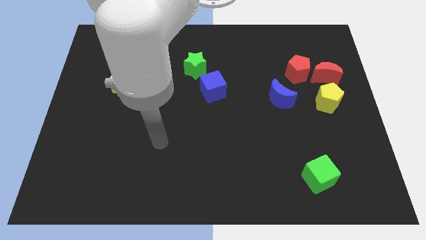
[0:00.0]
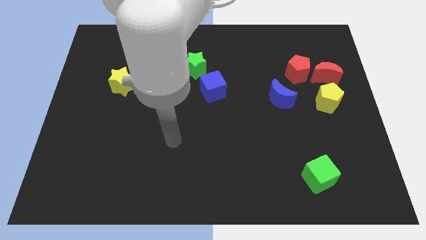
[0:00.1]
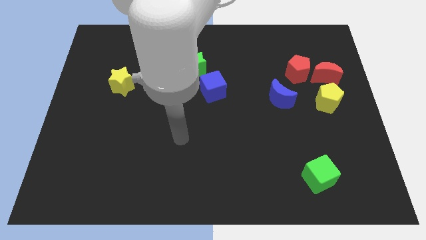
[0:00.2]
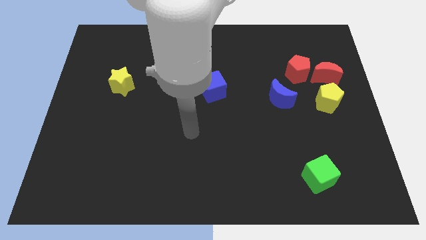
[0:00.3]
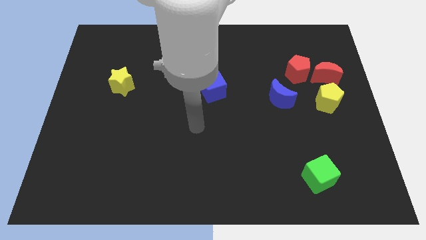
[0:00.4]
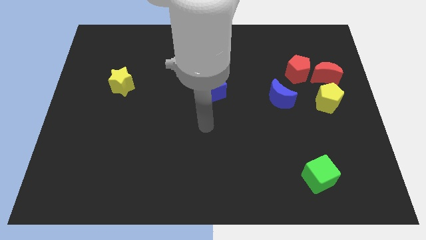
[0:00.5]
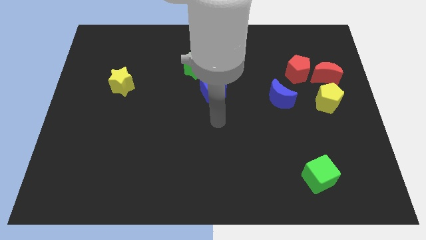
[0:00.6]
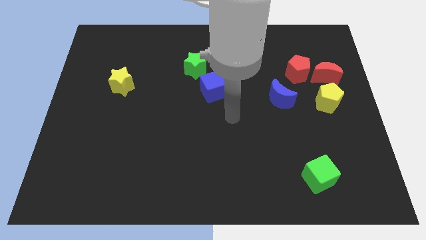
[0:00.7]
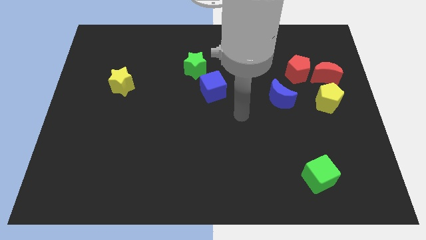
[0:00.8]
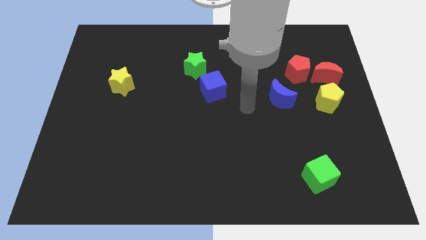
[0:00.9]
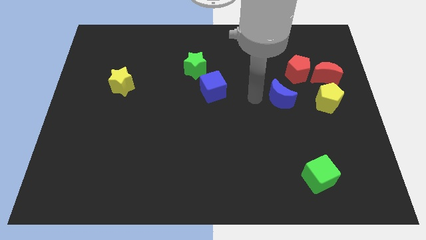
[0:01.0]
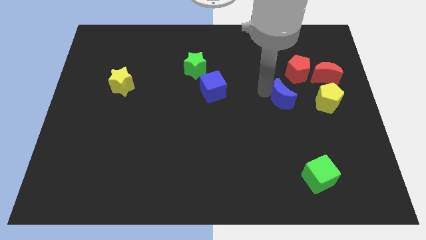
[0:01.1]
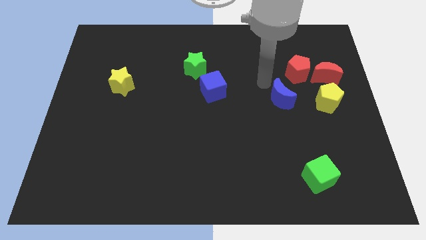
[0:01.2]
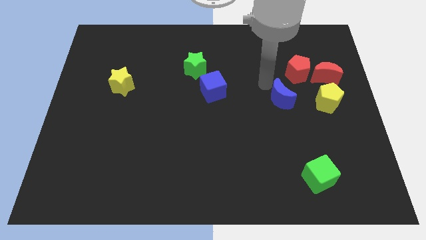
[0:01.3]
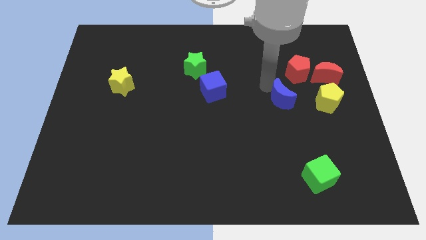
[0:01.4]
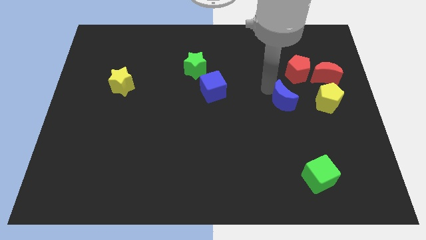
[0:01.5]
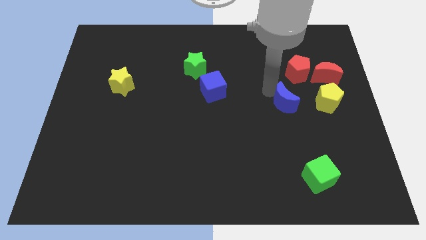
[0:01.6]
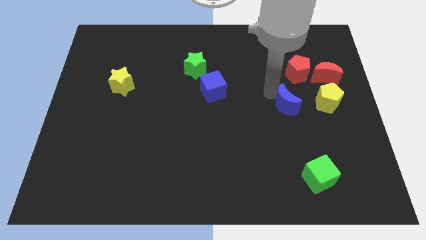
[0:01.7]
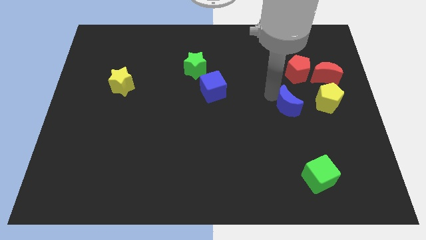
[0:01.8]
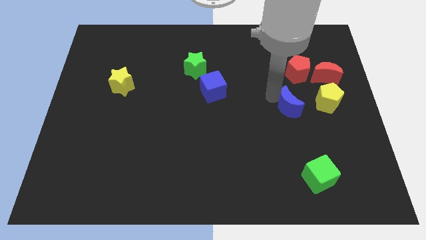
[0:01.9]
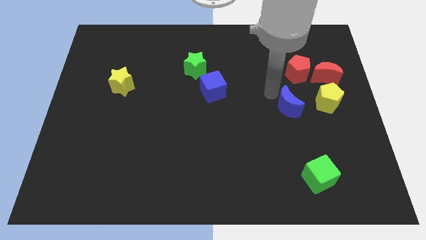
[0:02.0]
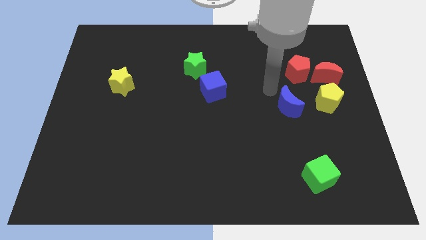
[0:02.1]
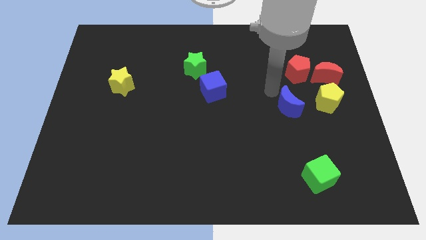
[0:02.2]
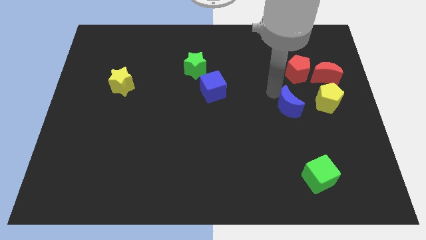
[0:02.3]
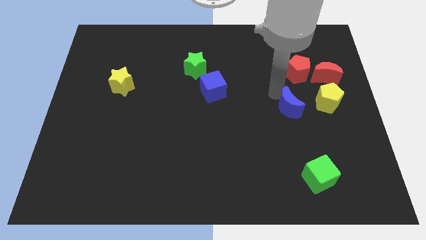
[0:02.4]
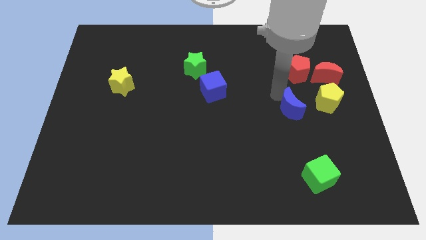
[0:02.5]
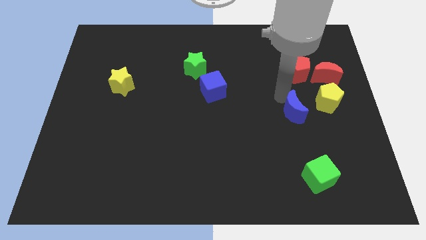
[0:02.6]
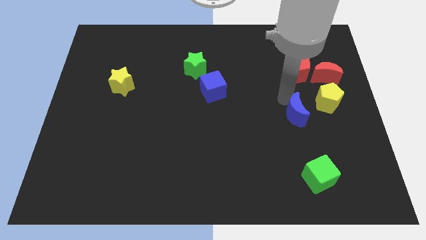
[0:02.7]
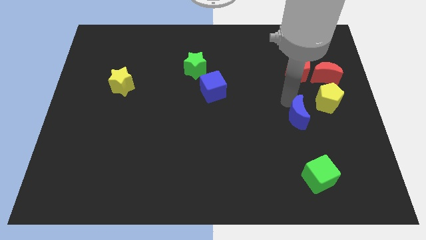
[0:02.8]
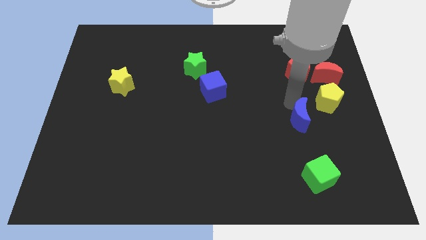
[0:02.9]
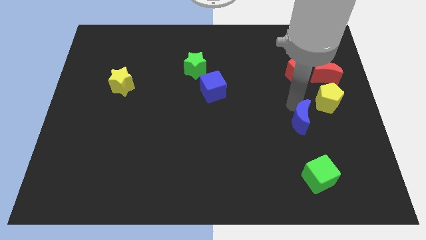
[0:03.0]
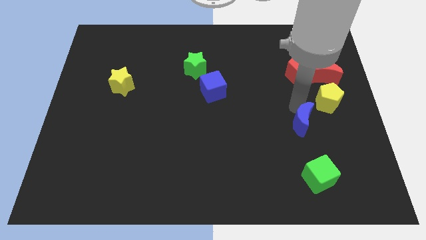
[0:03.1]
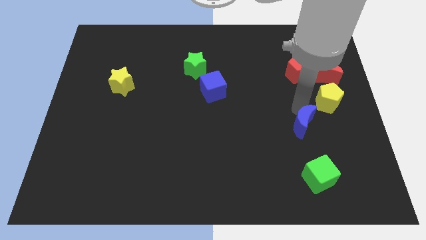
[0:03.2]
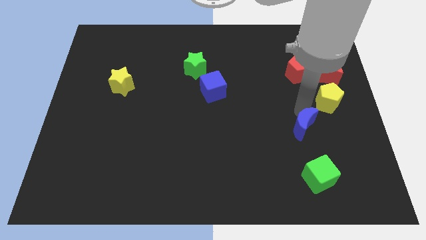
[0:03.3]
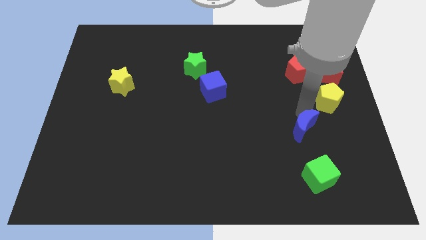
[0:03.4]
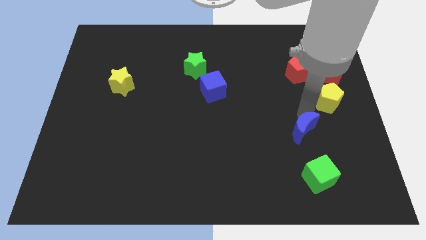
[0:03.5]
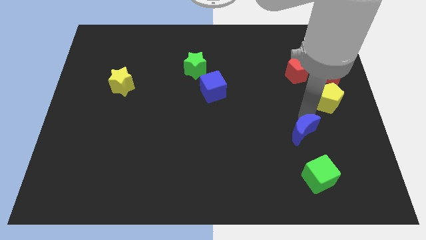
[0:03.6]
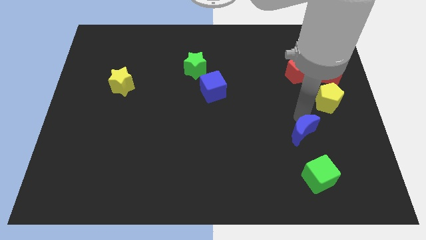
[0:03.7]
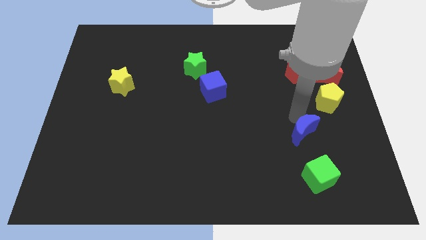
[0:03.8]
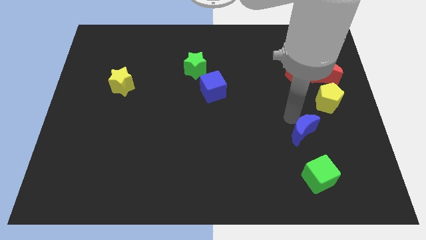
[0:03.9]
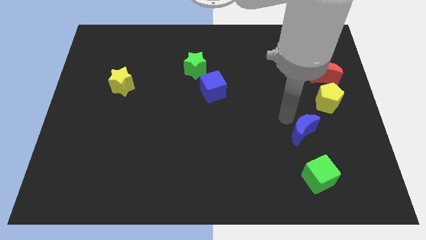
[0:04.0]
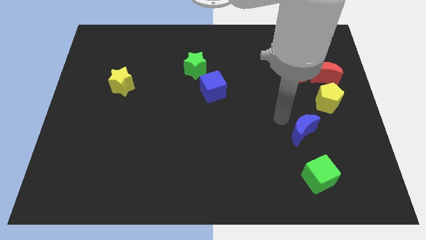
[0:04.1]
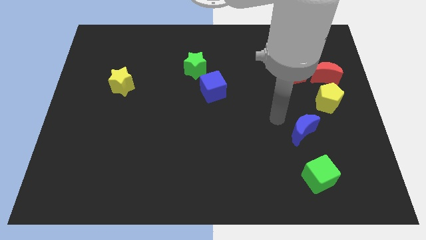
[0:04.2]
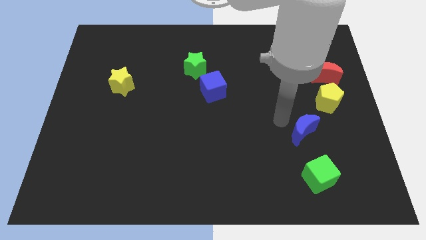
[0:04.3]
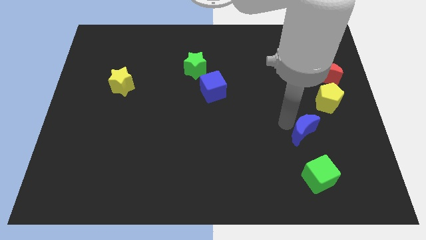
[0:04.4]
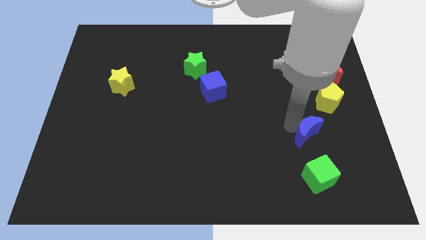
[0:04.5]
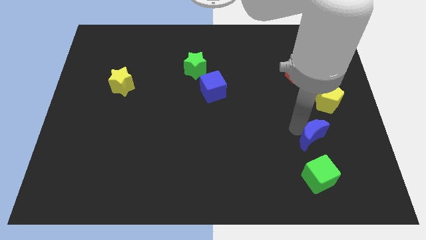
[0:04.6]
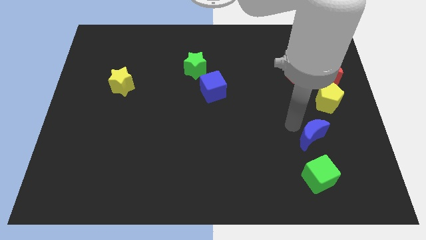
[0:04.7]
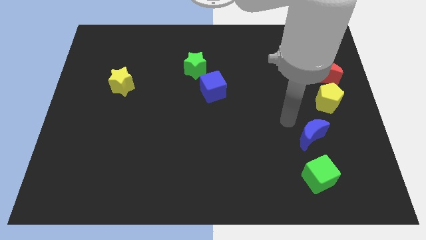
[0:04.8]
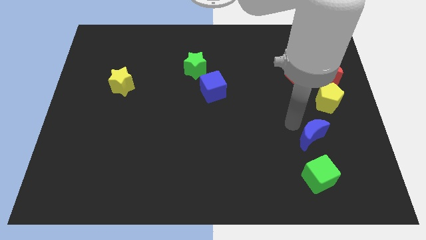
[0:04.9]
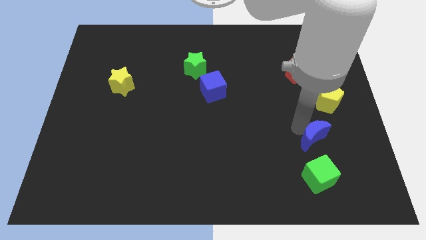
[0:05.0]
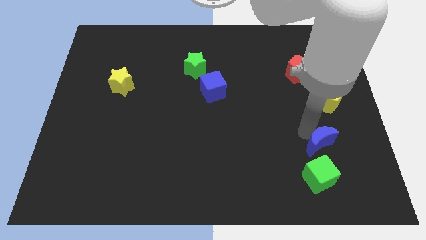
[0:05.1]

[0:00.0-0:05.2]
push the blue moon to the top right of the green cube
